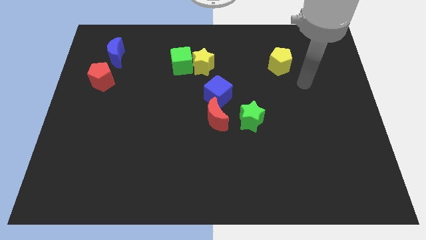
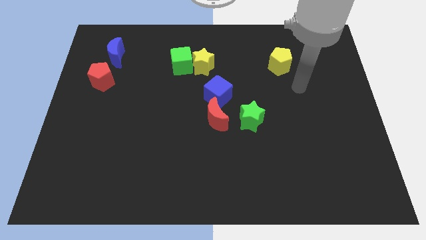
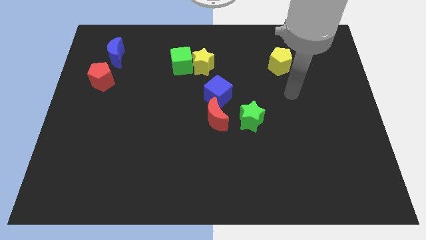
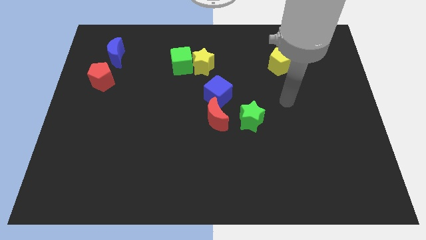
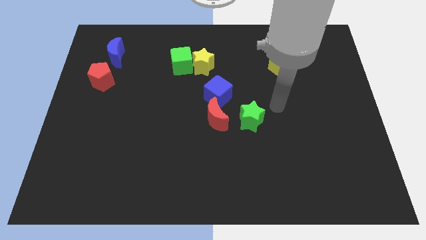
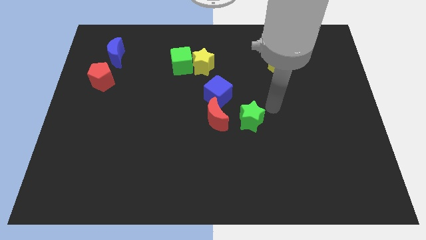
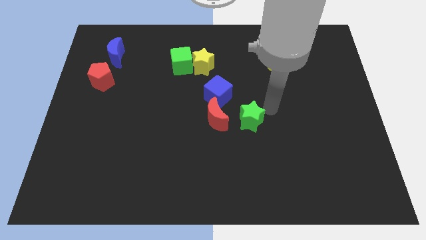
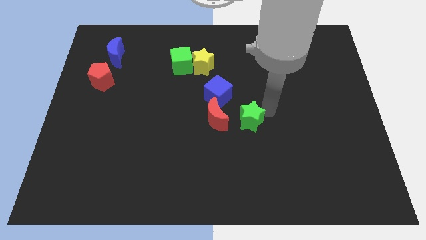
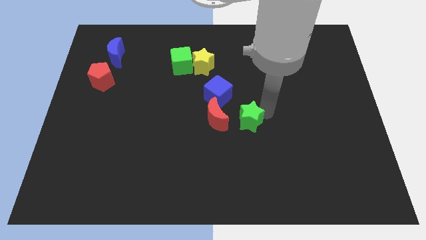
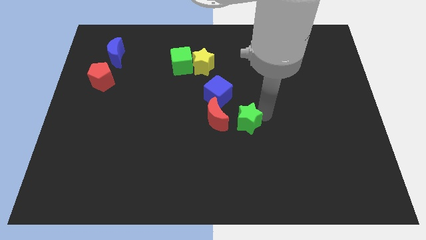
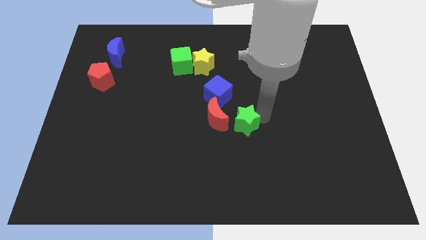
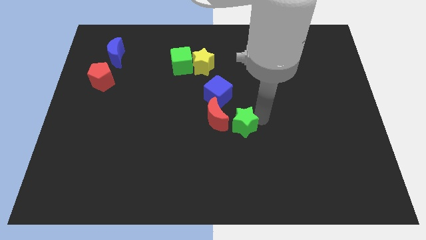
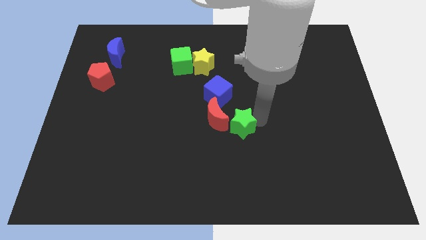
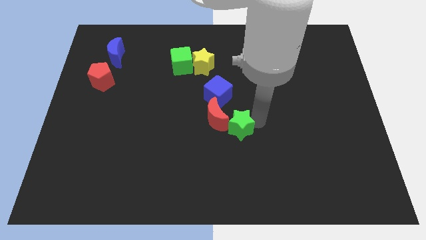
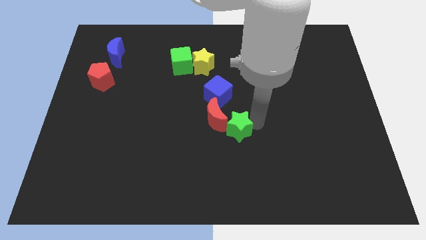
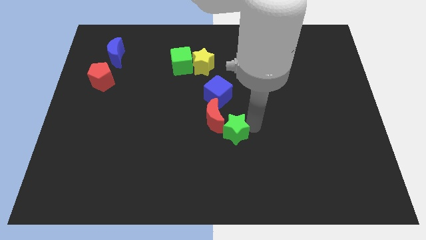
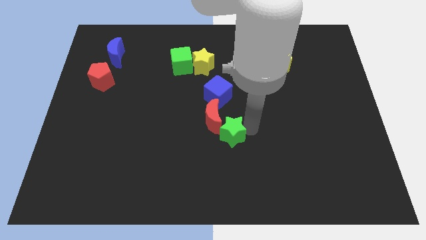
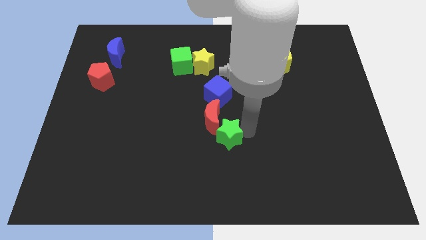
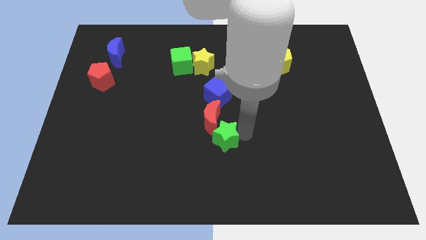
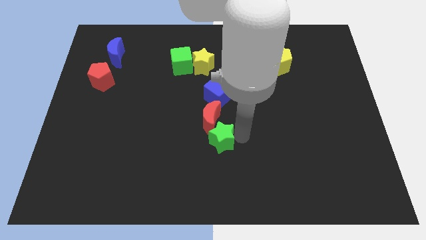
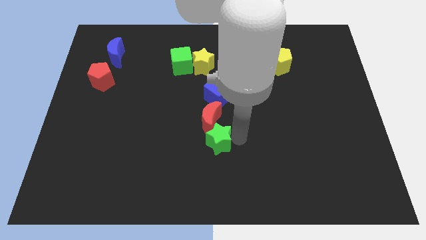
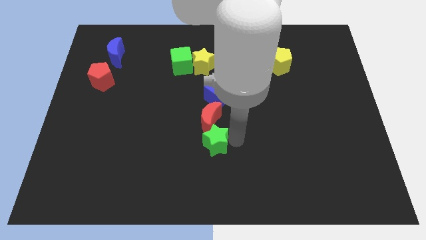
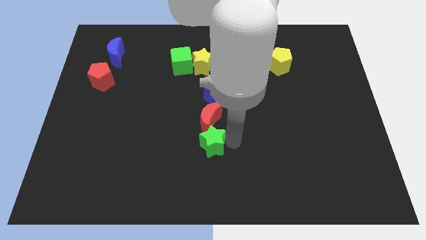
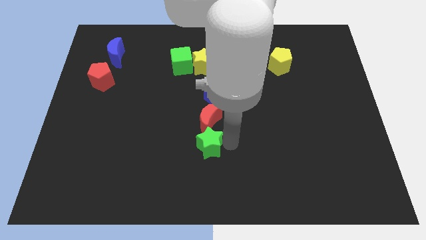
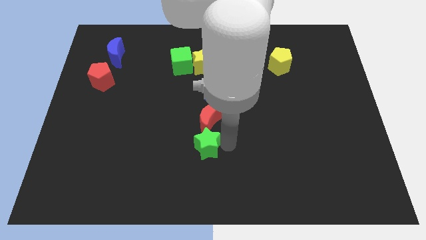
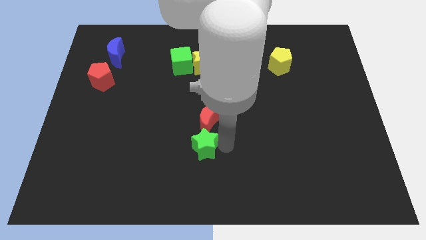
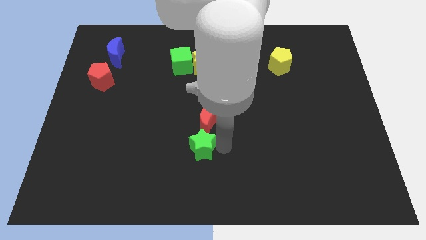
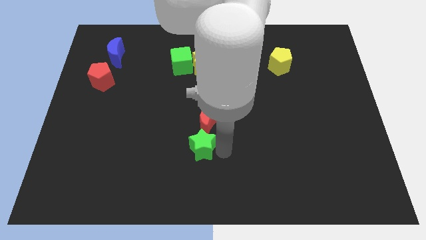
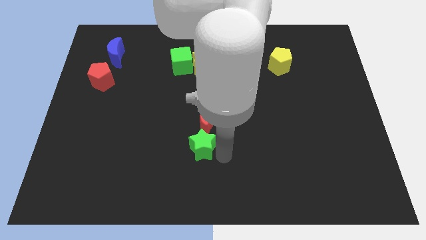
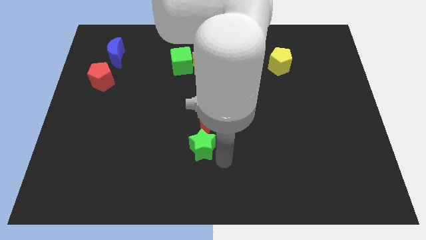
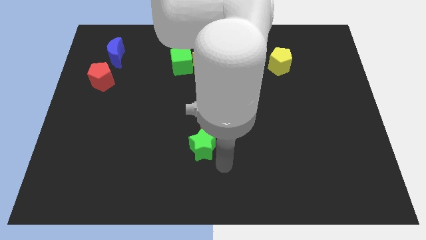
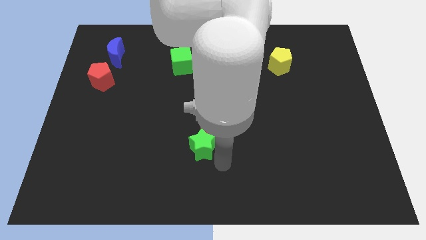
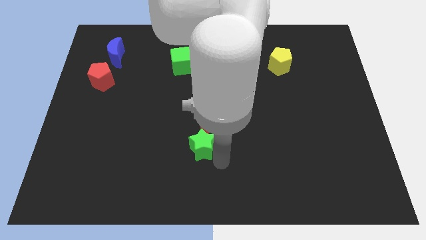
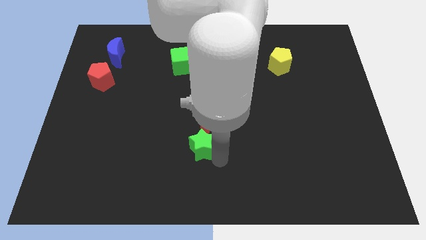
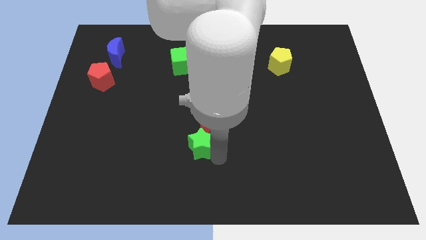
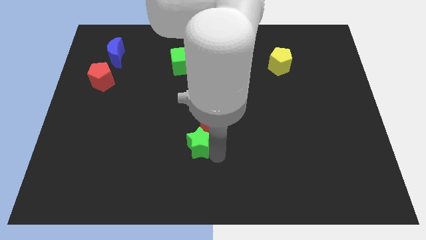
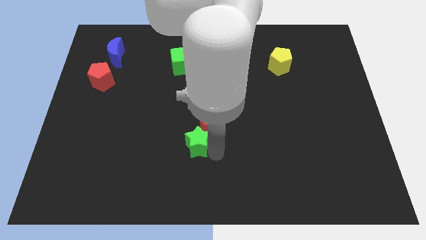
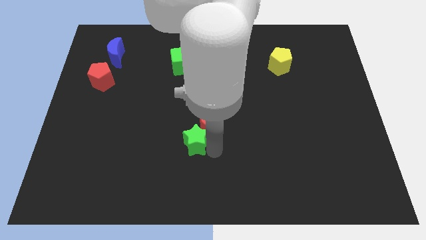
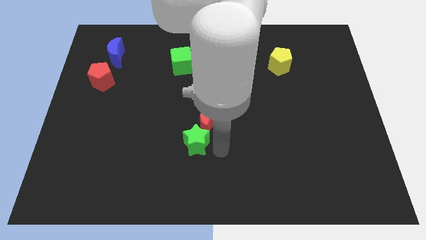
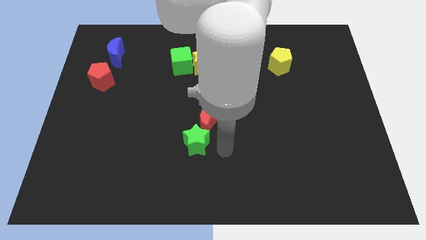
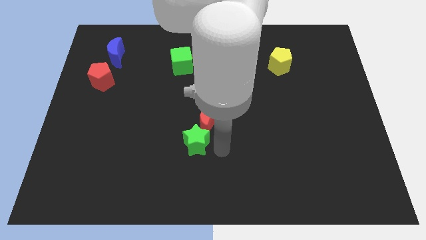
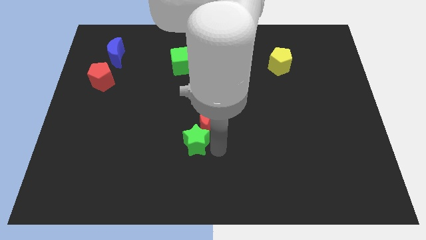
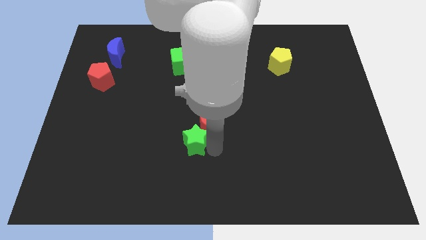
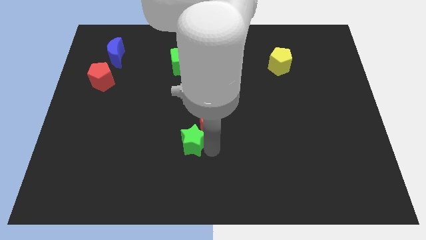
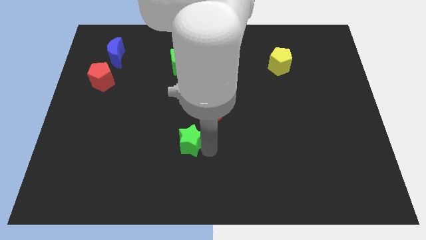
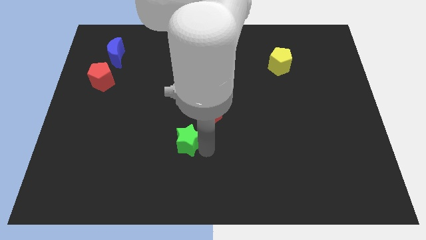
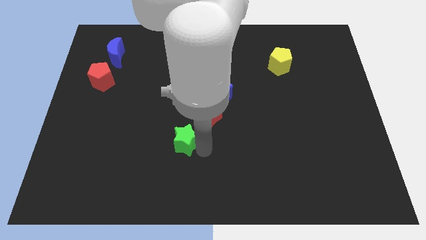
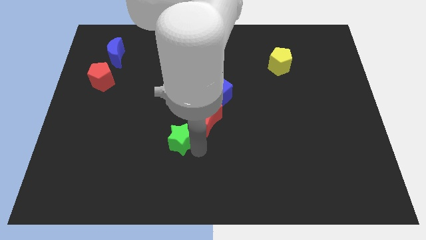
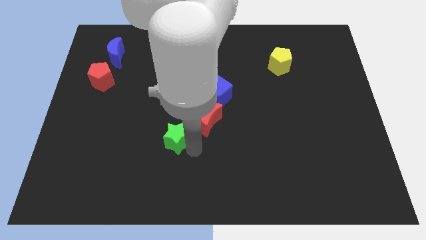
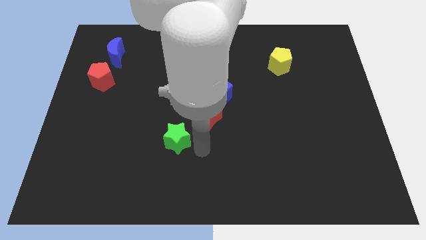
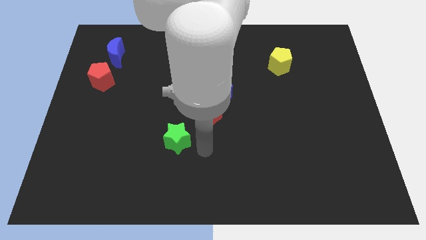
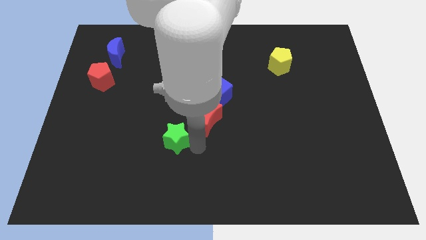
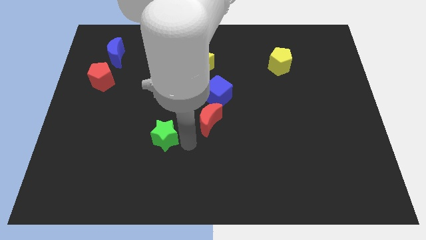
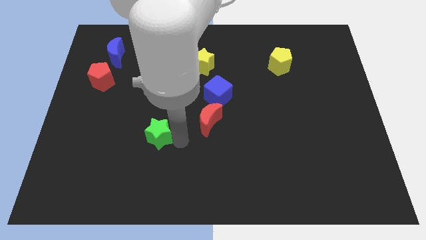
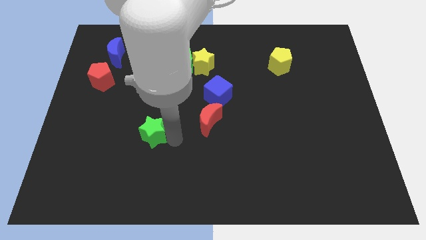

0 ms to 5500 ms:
move the green star to the left

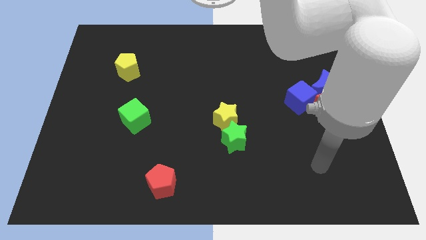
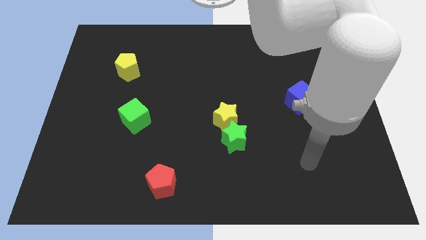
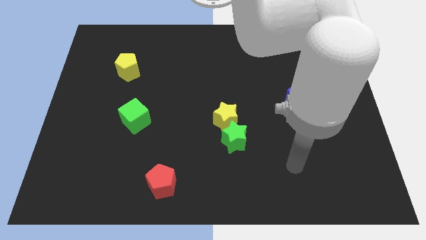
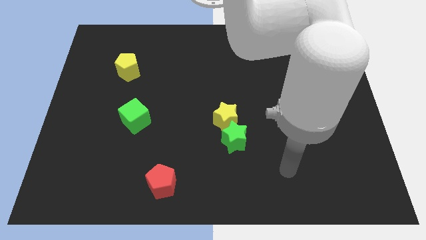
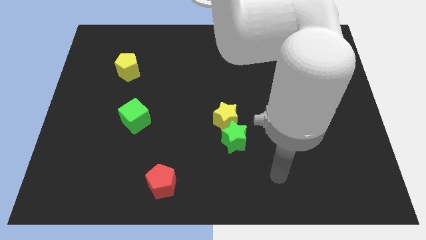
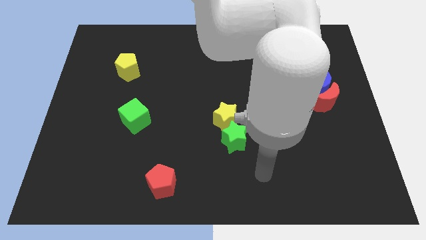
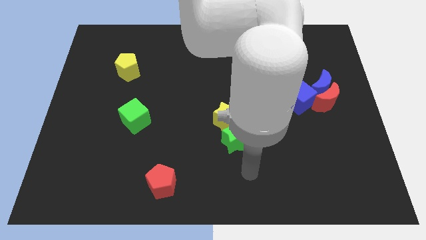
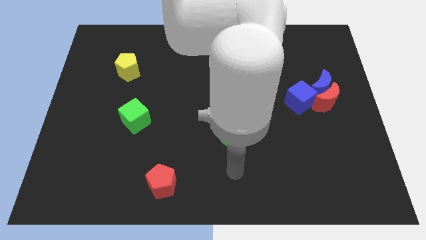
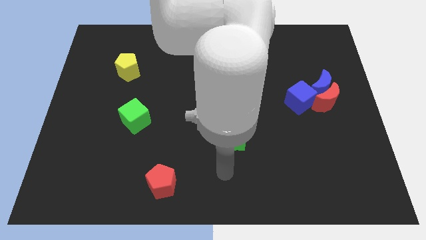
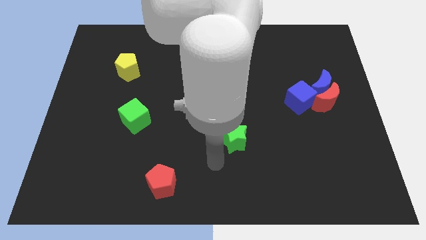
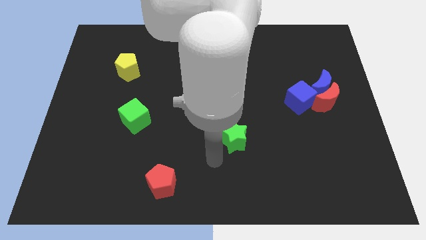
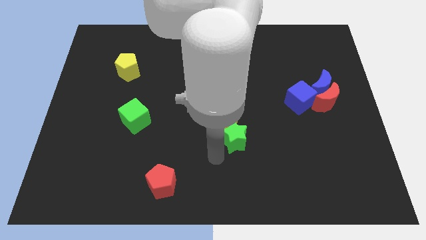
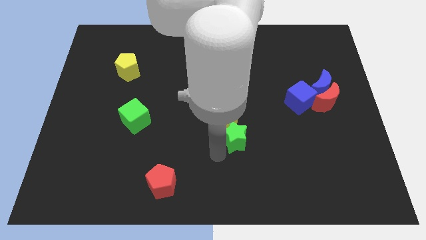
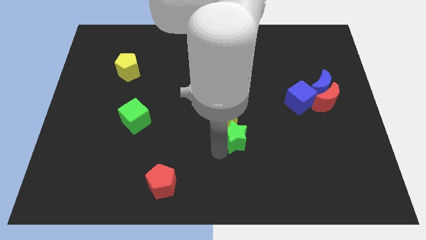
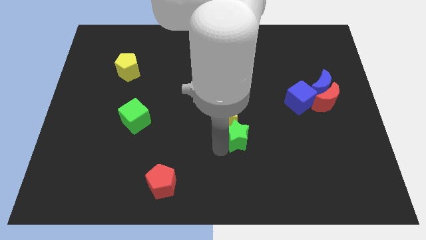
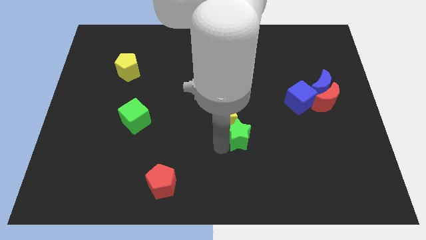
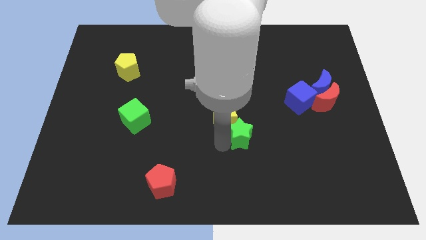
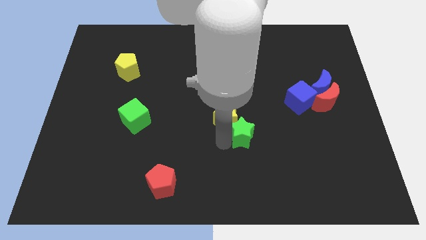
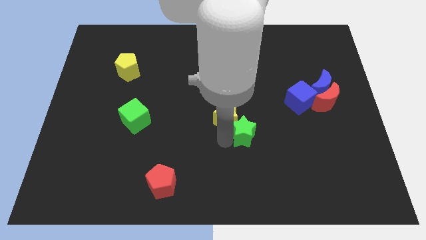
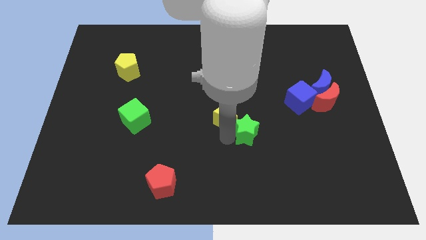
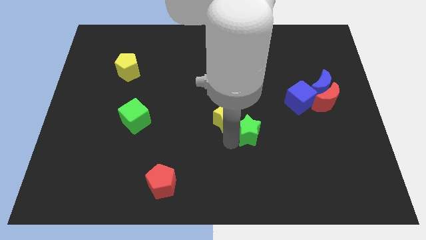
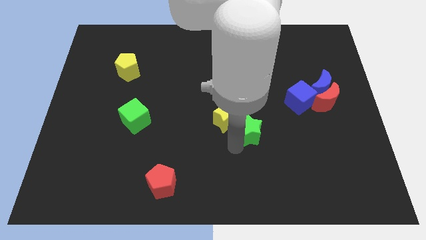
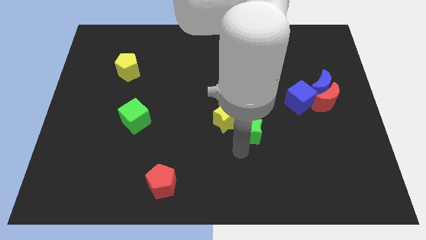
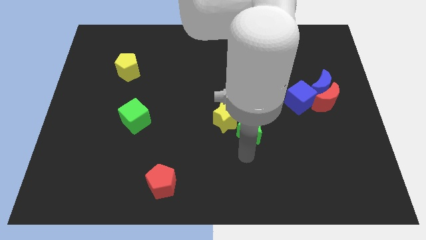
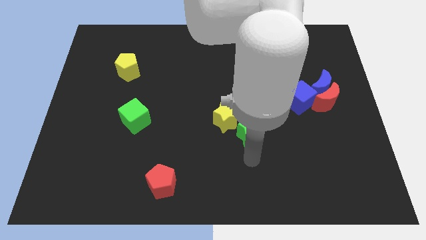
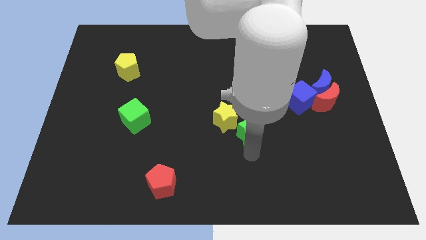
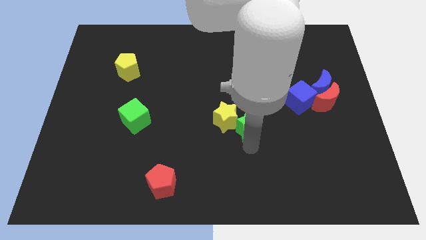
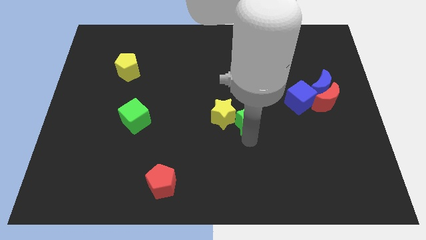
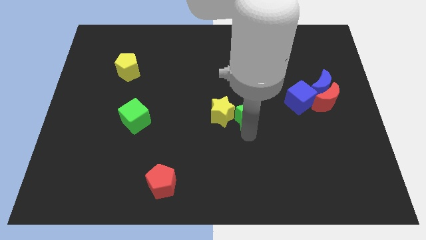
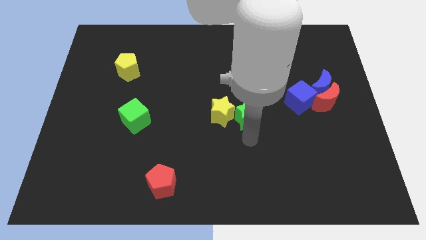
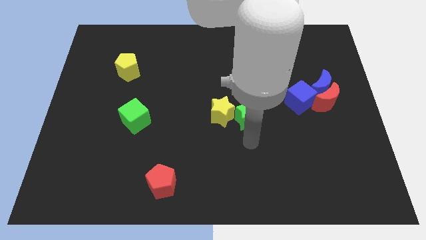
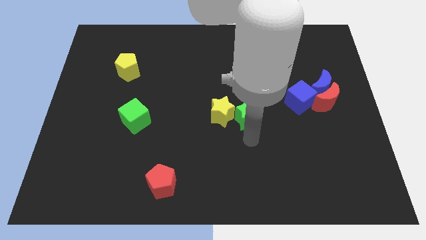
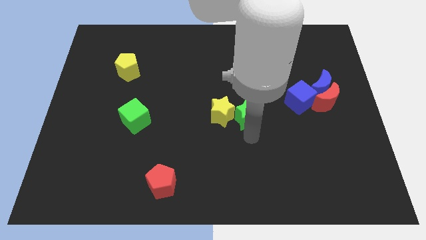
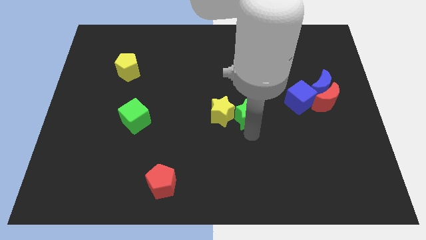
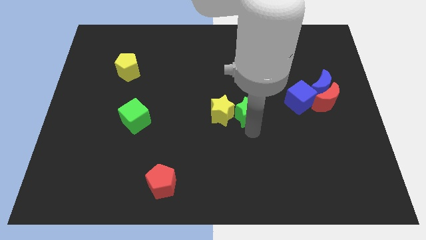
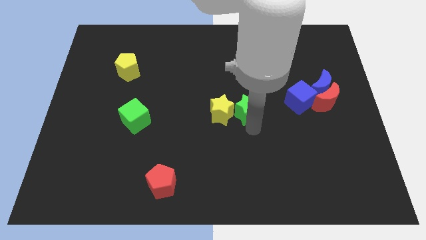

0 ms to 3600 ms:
push the green star slightly up
